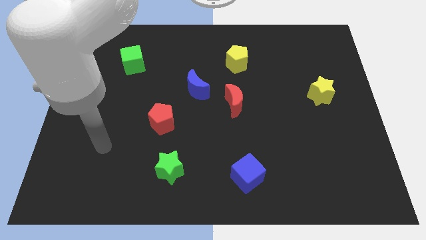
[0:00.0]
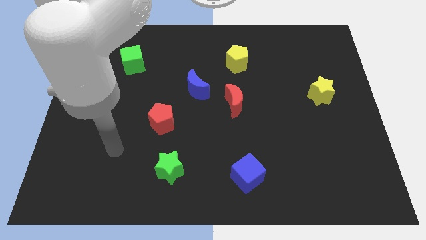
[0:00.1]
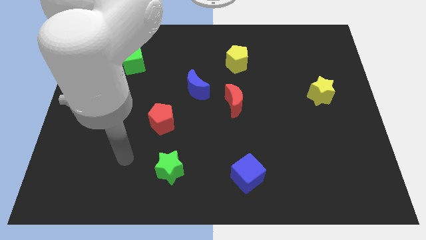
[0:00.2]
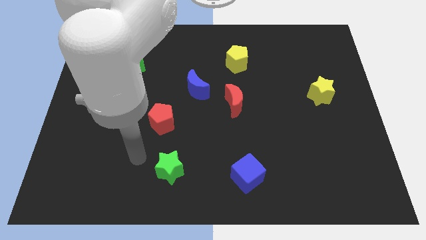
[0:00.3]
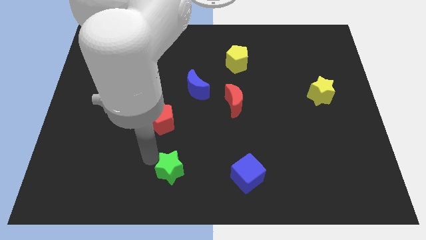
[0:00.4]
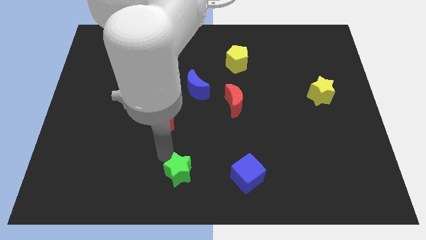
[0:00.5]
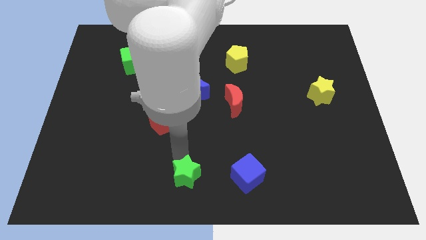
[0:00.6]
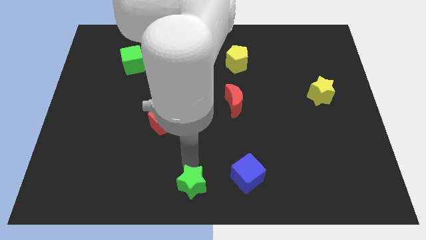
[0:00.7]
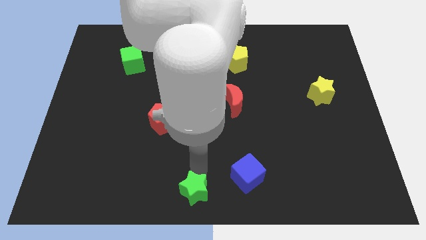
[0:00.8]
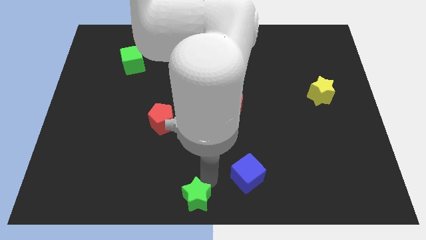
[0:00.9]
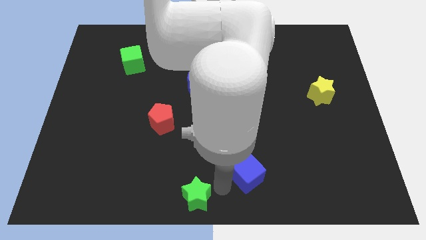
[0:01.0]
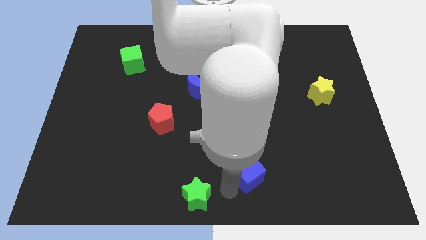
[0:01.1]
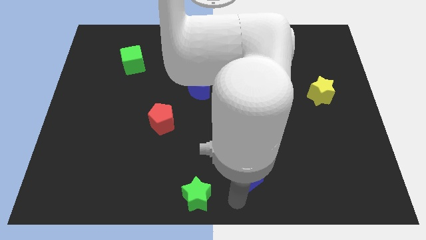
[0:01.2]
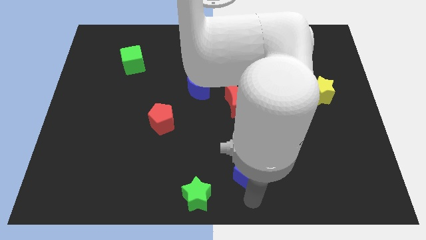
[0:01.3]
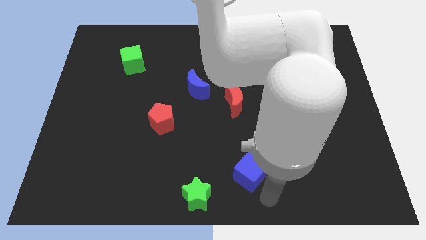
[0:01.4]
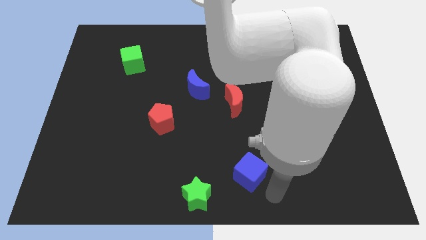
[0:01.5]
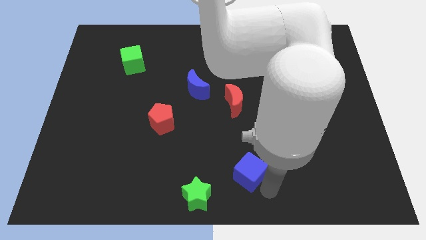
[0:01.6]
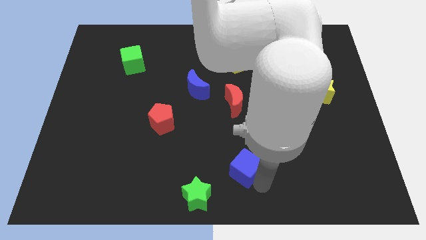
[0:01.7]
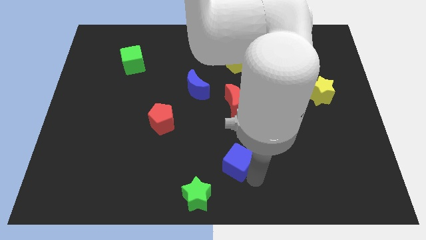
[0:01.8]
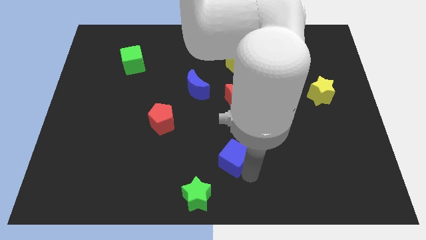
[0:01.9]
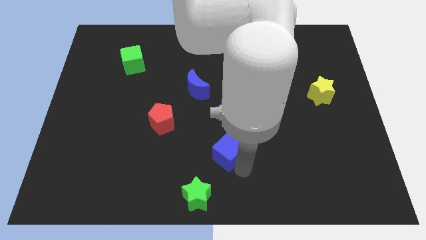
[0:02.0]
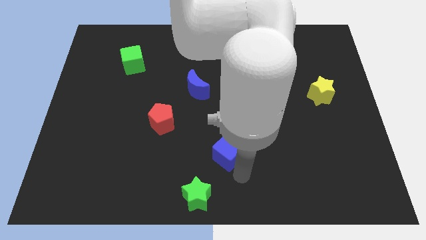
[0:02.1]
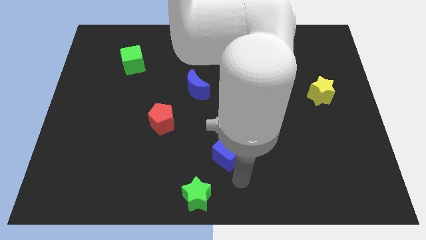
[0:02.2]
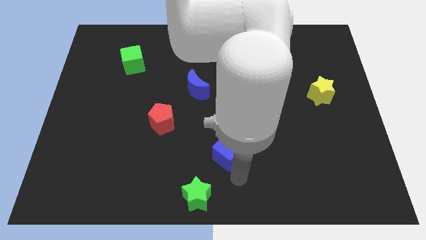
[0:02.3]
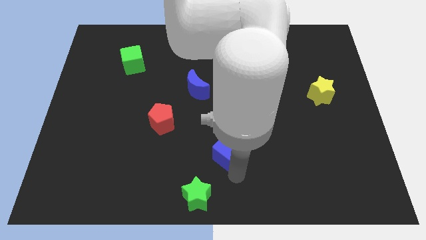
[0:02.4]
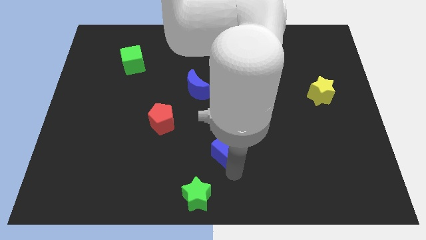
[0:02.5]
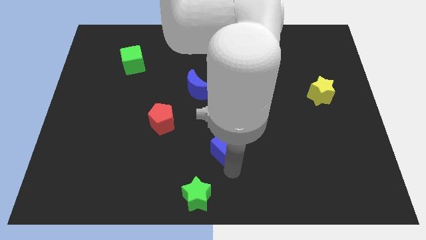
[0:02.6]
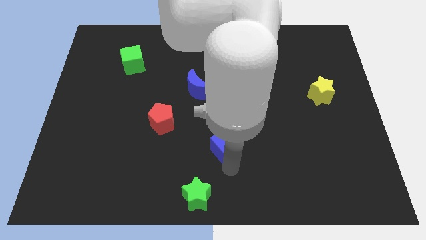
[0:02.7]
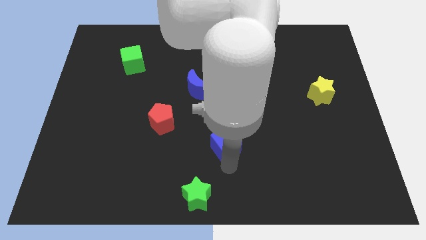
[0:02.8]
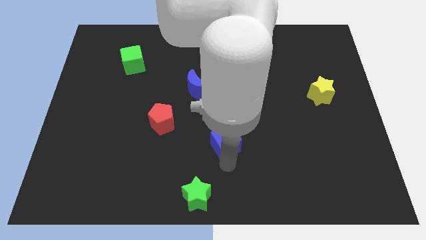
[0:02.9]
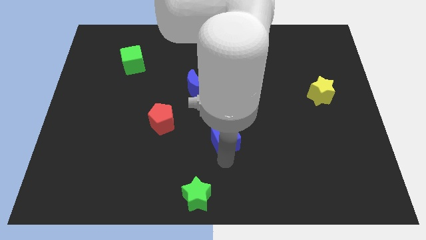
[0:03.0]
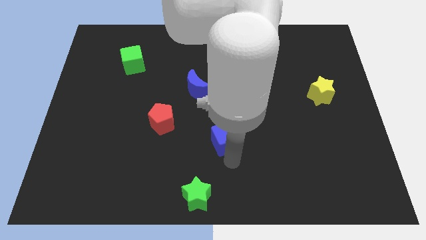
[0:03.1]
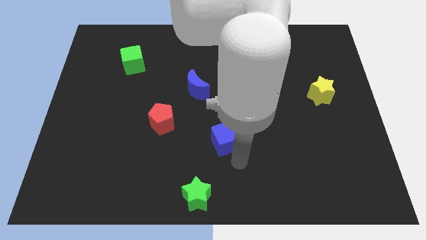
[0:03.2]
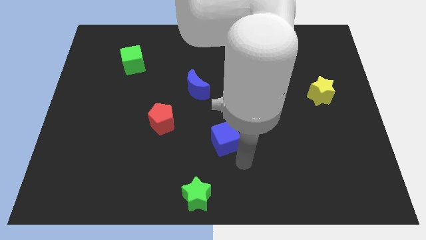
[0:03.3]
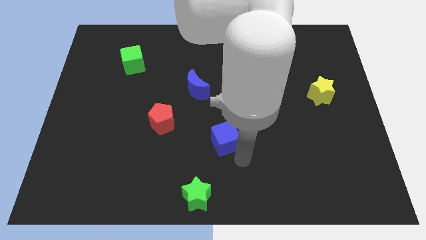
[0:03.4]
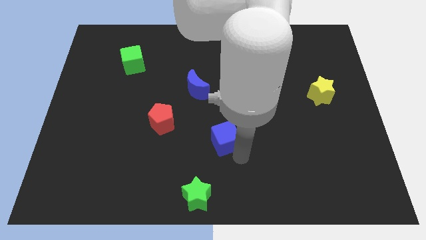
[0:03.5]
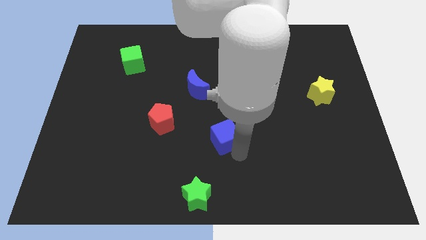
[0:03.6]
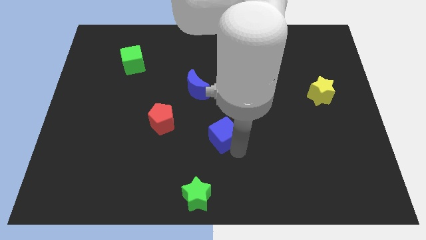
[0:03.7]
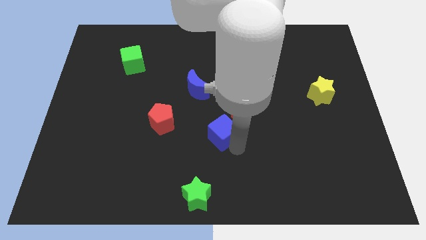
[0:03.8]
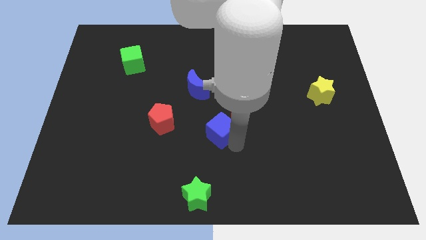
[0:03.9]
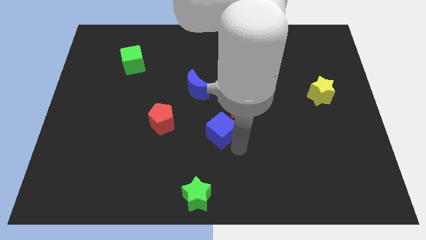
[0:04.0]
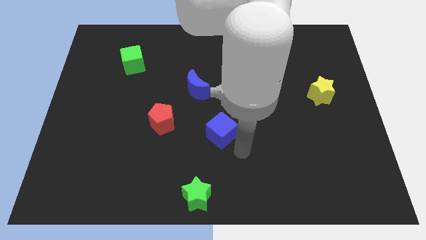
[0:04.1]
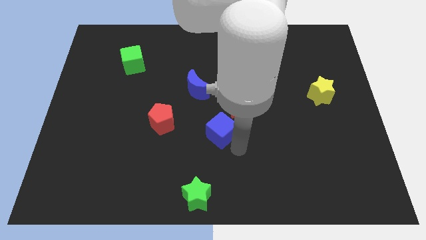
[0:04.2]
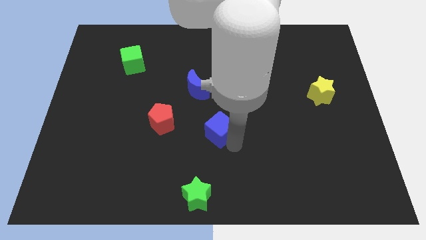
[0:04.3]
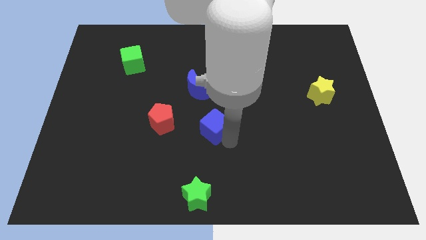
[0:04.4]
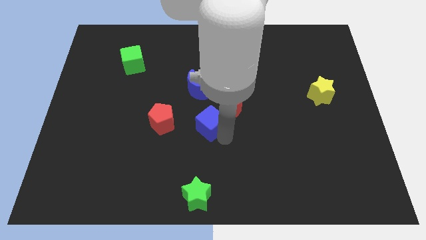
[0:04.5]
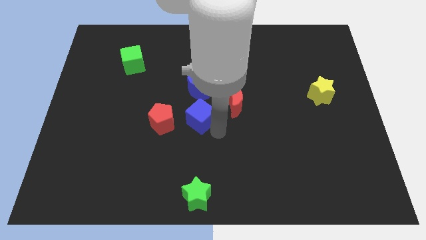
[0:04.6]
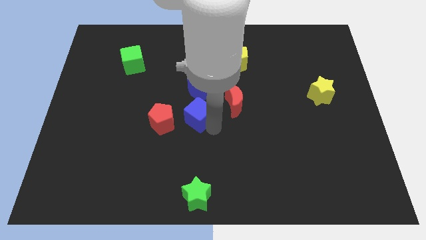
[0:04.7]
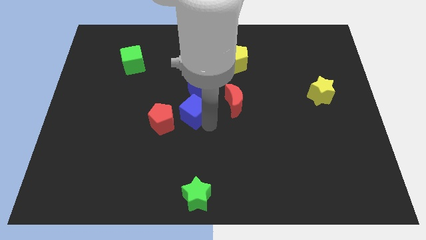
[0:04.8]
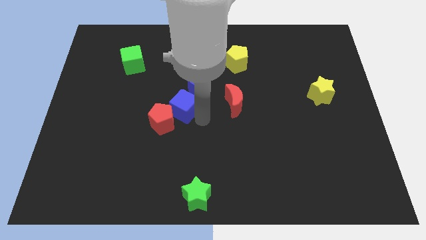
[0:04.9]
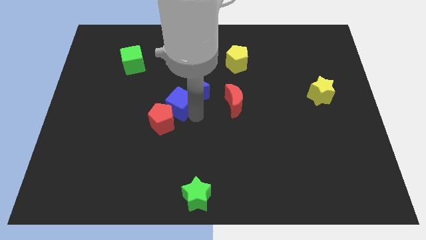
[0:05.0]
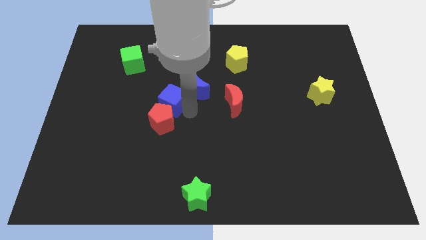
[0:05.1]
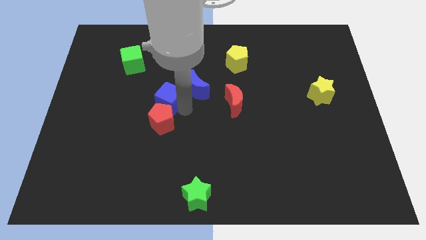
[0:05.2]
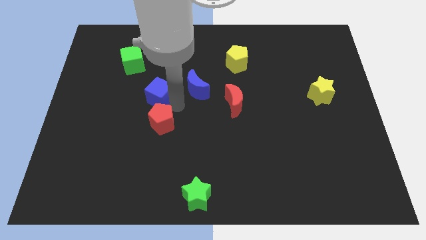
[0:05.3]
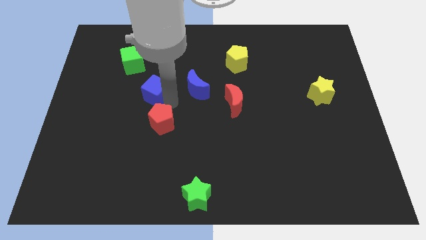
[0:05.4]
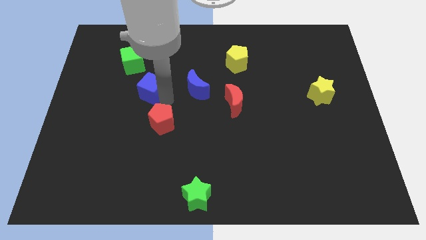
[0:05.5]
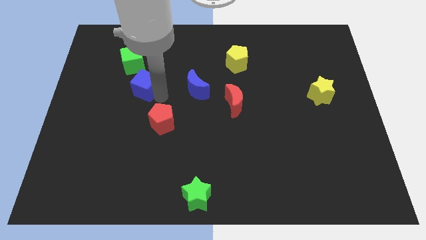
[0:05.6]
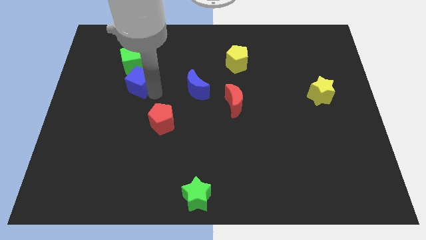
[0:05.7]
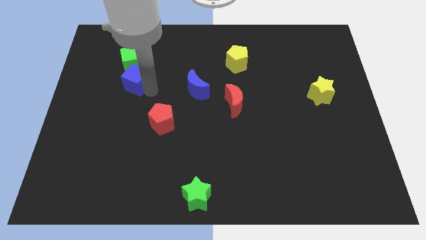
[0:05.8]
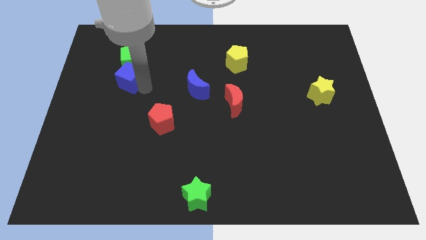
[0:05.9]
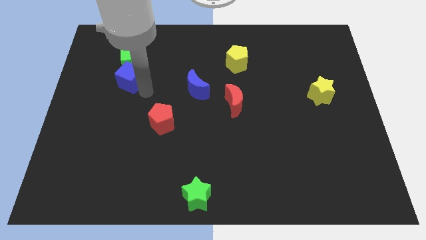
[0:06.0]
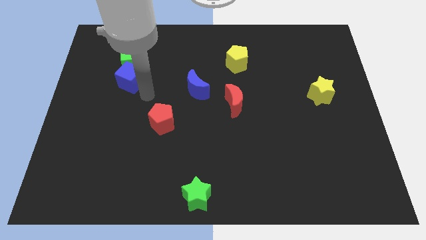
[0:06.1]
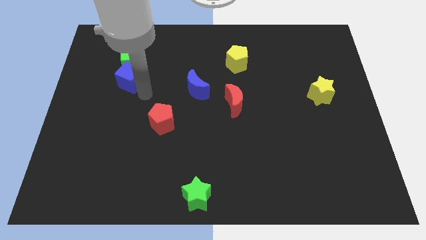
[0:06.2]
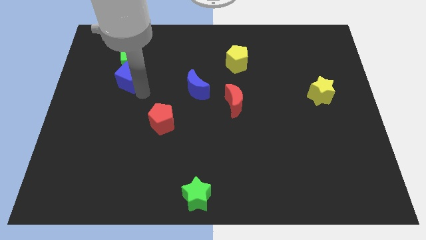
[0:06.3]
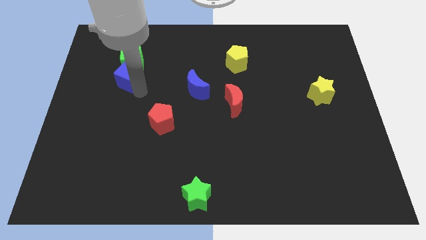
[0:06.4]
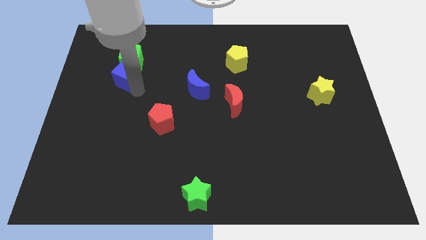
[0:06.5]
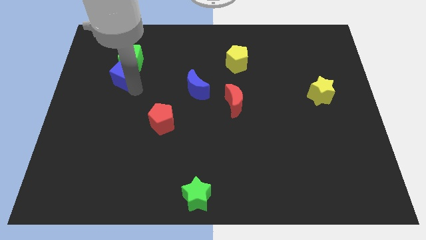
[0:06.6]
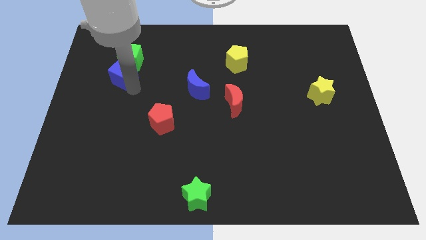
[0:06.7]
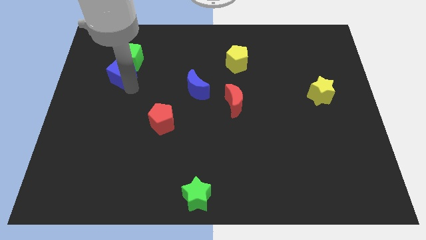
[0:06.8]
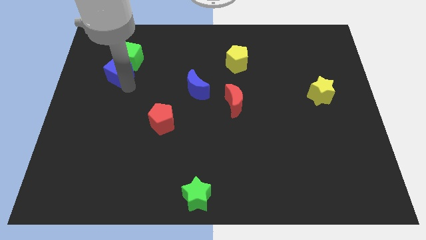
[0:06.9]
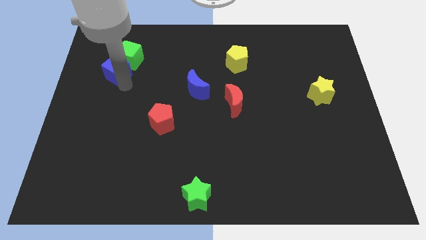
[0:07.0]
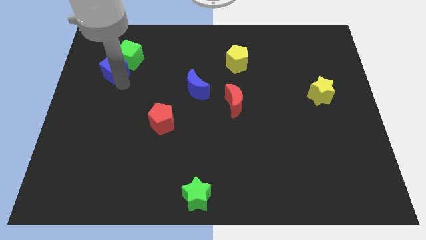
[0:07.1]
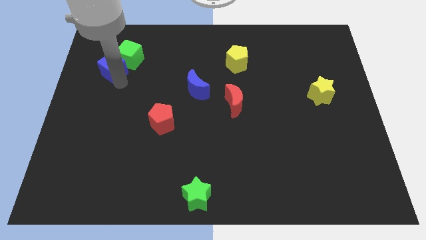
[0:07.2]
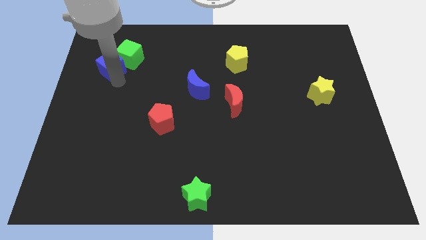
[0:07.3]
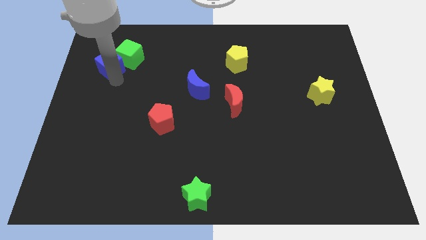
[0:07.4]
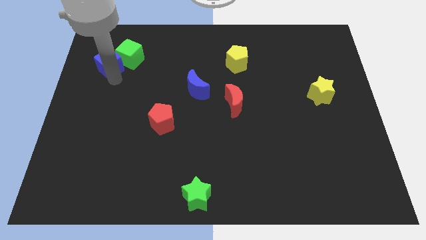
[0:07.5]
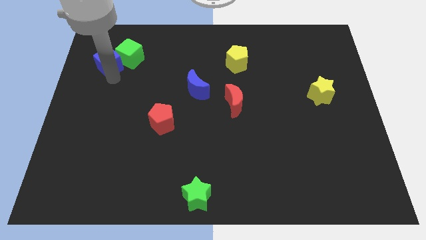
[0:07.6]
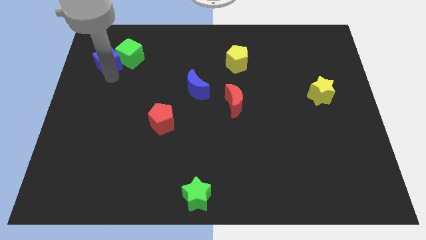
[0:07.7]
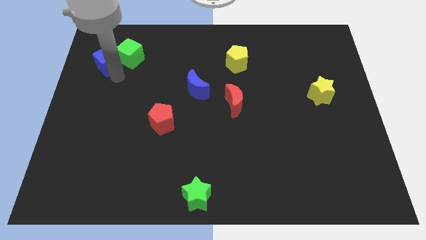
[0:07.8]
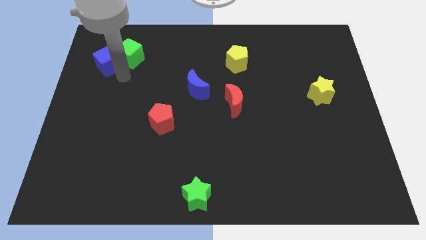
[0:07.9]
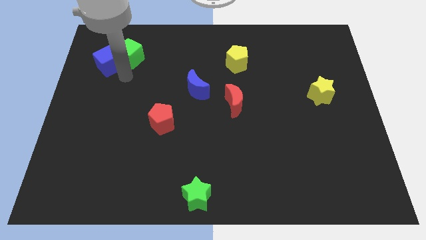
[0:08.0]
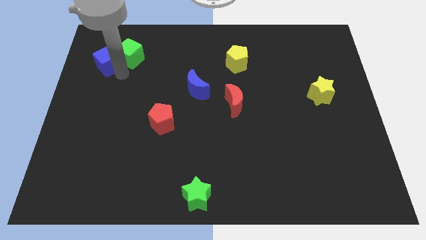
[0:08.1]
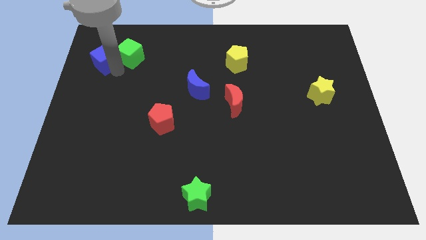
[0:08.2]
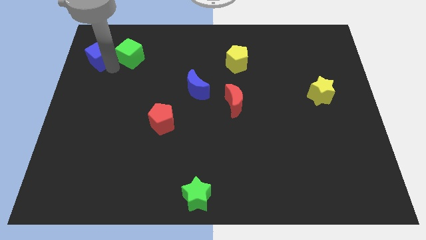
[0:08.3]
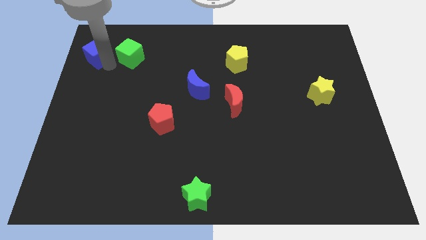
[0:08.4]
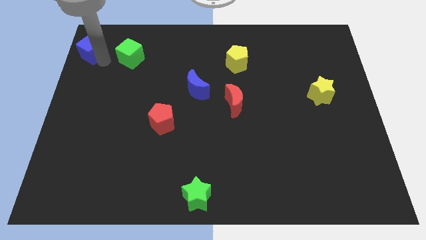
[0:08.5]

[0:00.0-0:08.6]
push the blue cube to the upper left corner
